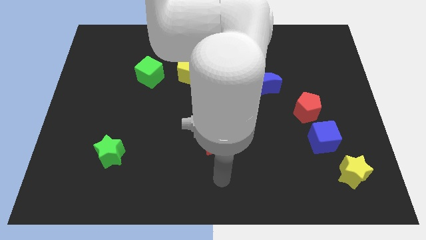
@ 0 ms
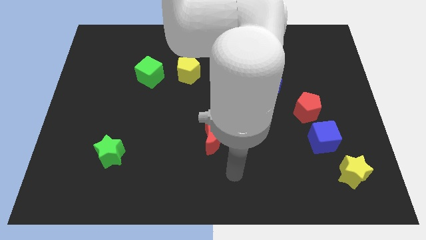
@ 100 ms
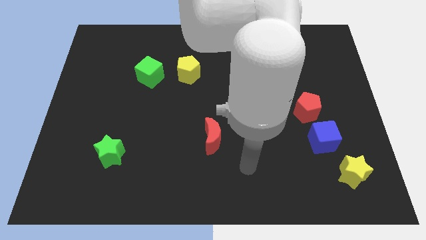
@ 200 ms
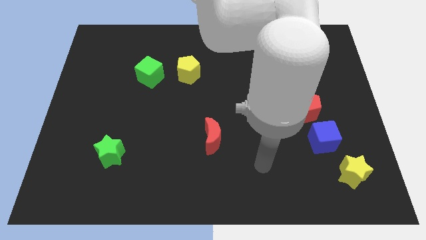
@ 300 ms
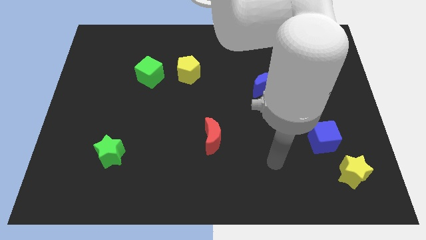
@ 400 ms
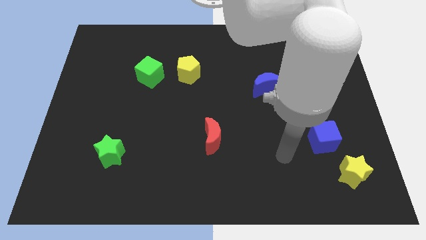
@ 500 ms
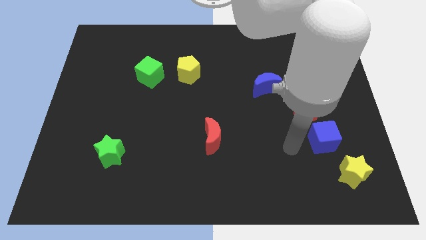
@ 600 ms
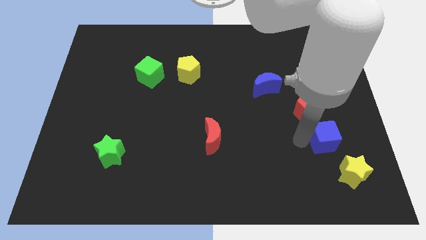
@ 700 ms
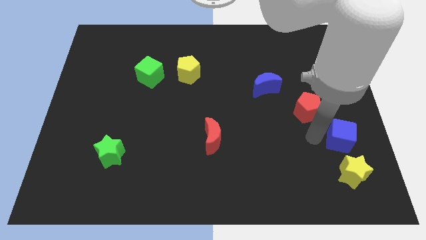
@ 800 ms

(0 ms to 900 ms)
pull the red pentagon apart from the blue cube

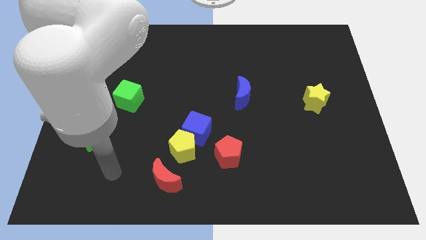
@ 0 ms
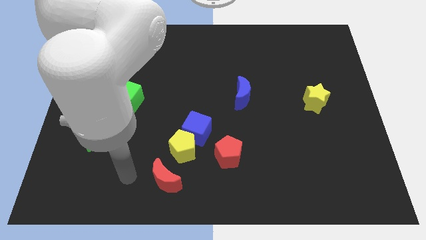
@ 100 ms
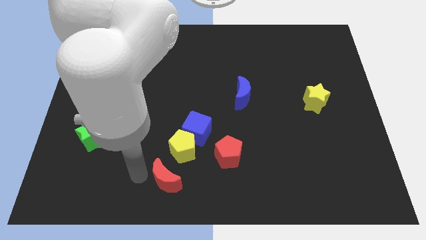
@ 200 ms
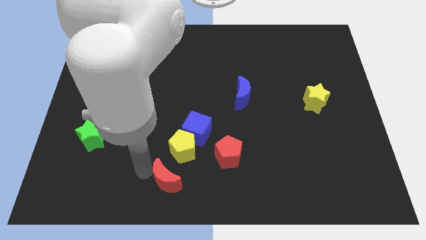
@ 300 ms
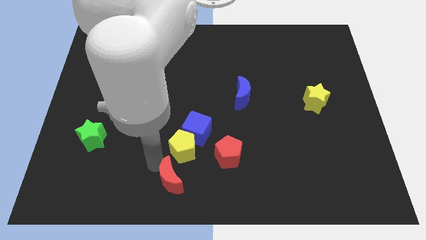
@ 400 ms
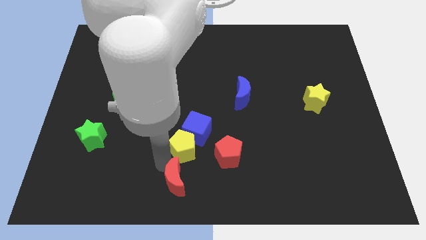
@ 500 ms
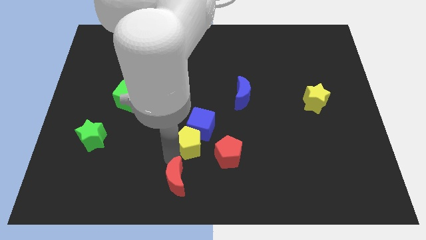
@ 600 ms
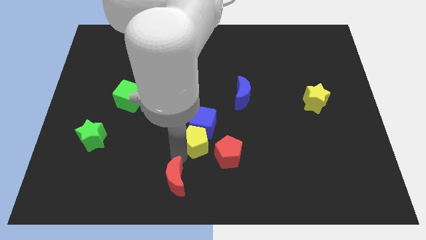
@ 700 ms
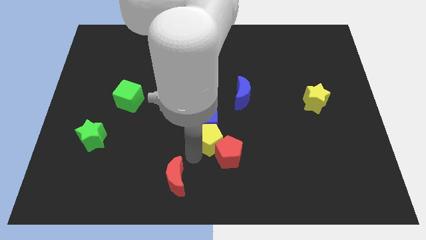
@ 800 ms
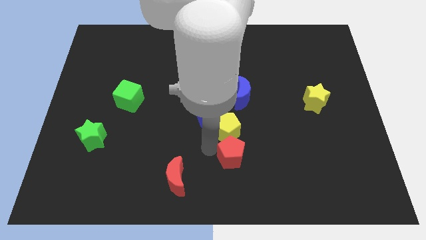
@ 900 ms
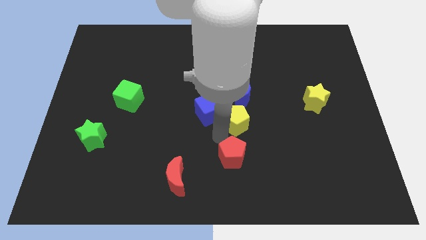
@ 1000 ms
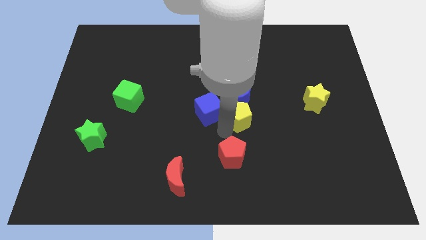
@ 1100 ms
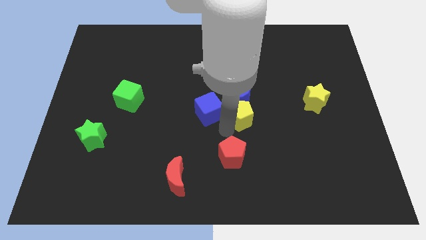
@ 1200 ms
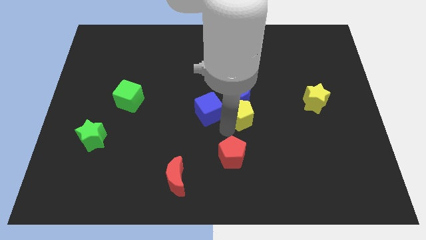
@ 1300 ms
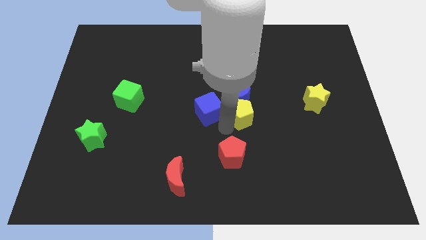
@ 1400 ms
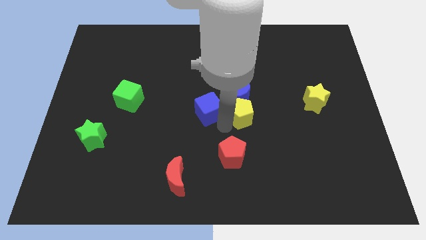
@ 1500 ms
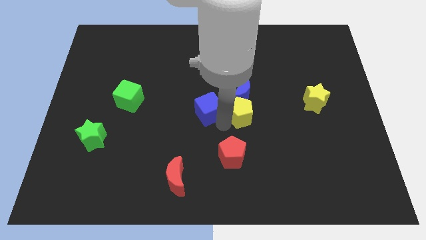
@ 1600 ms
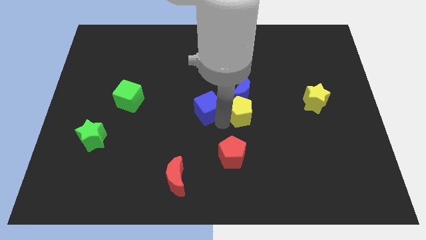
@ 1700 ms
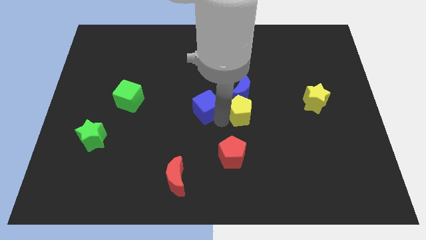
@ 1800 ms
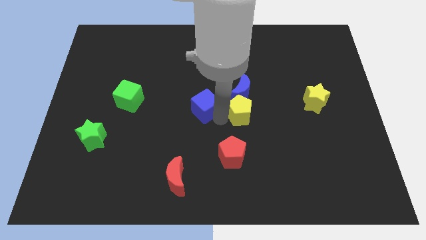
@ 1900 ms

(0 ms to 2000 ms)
separate the blue cube from the yellow pentagon and red pentagon

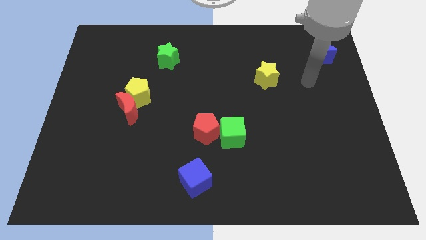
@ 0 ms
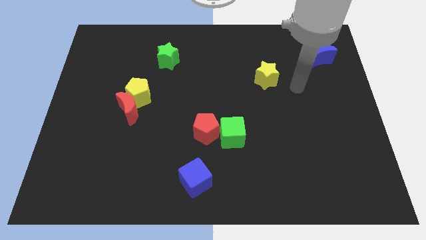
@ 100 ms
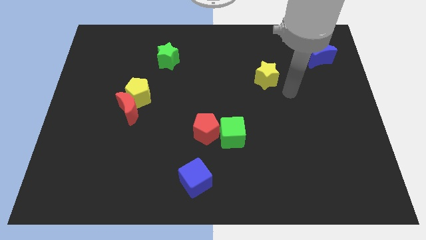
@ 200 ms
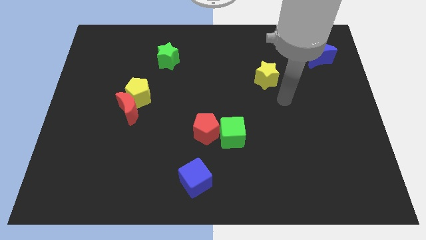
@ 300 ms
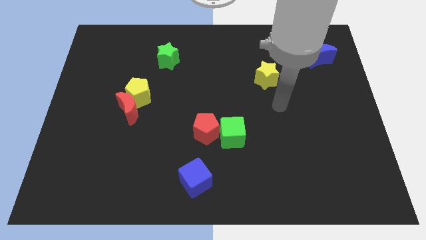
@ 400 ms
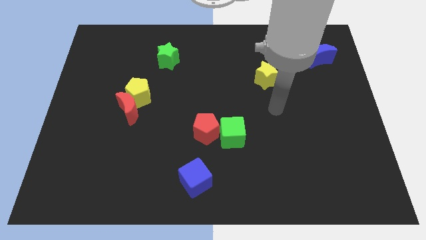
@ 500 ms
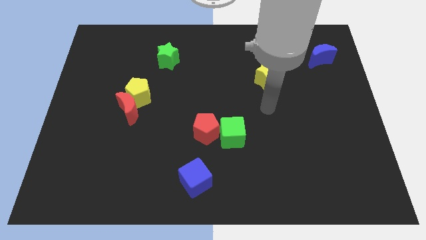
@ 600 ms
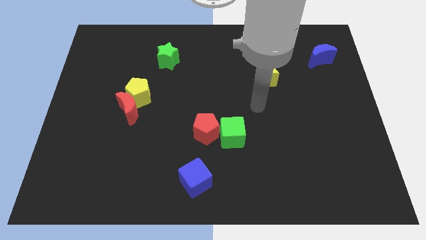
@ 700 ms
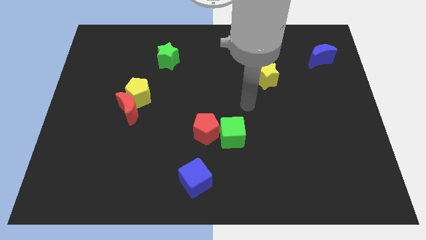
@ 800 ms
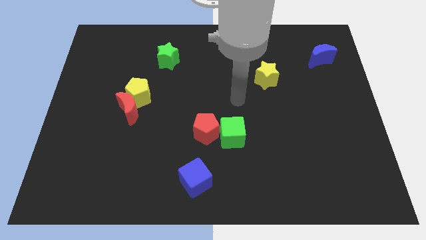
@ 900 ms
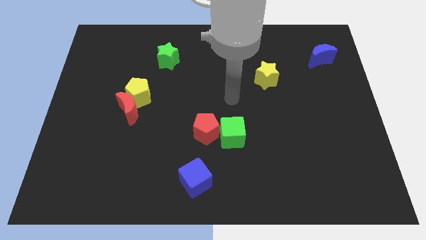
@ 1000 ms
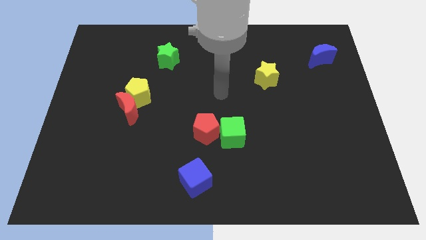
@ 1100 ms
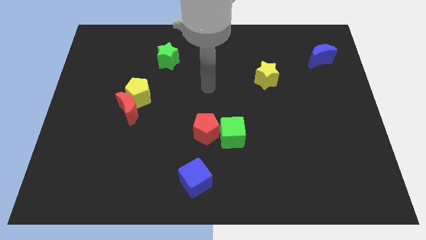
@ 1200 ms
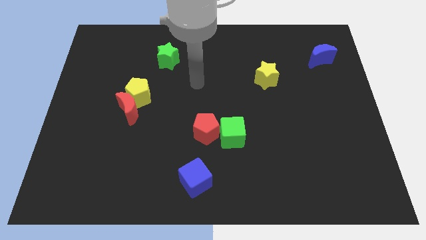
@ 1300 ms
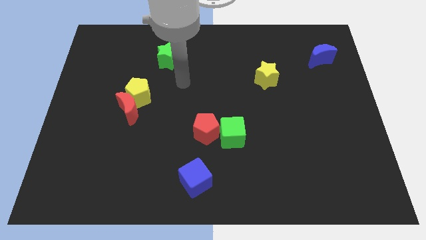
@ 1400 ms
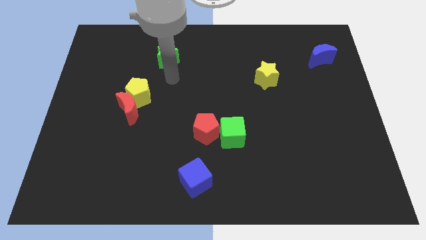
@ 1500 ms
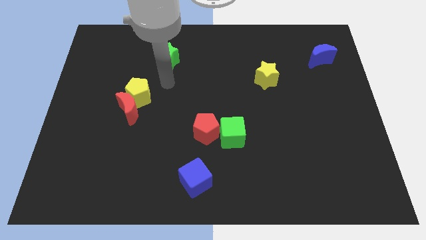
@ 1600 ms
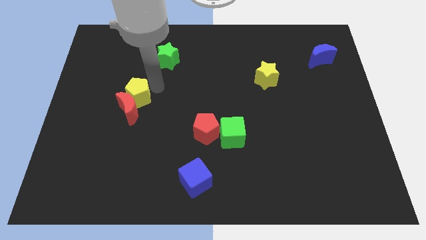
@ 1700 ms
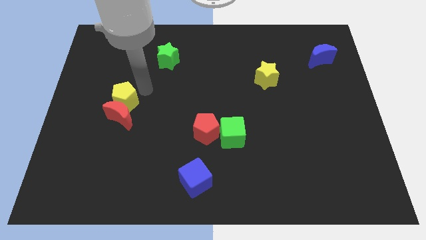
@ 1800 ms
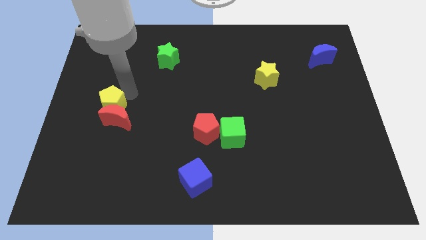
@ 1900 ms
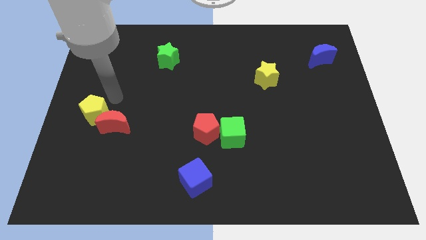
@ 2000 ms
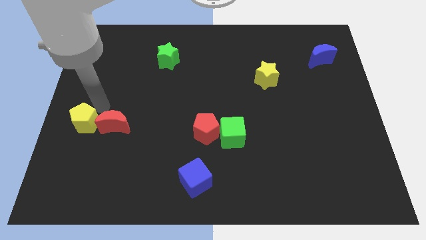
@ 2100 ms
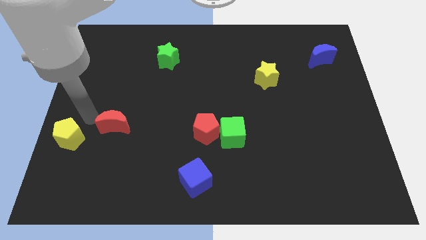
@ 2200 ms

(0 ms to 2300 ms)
pull the red moon apart from the yellow pentagon

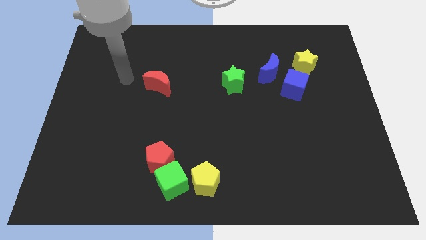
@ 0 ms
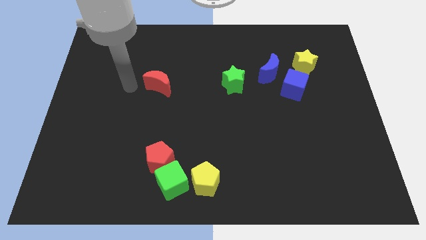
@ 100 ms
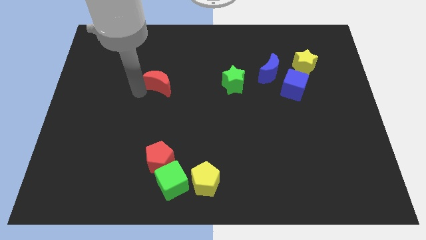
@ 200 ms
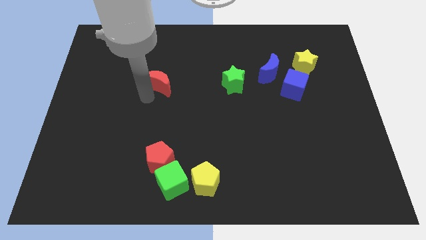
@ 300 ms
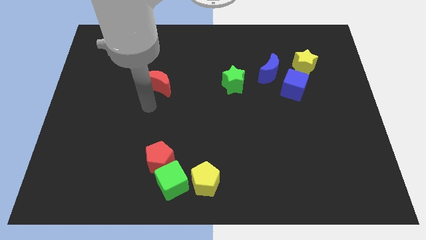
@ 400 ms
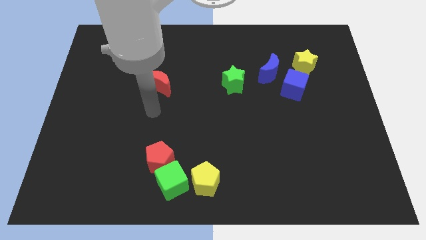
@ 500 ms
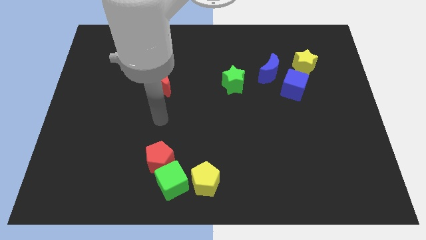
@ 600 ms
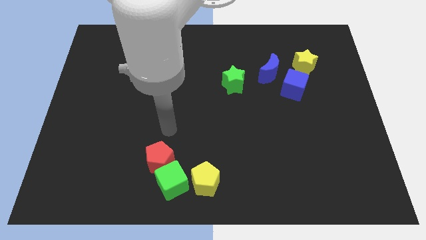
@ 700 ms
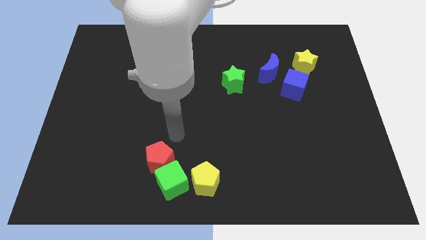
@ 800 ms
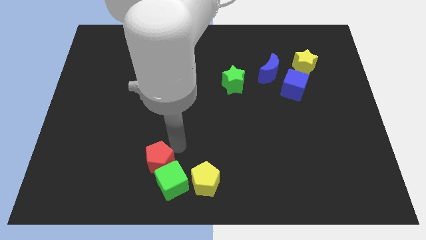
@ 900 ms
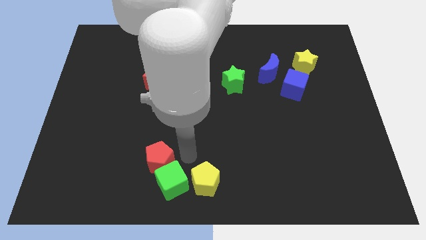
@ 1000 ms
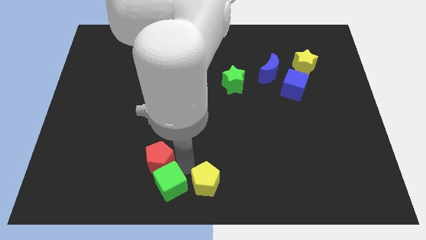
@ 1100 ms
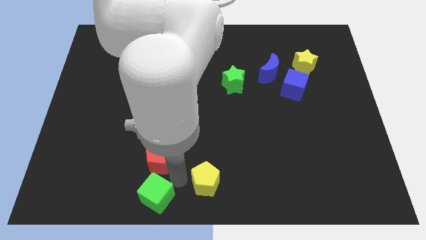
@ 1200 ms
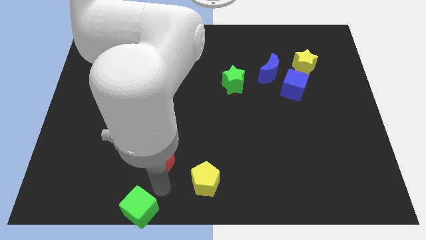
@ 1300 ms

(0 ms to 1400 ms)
move the red pentagon away from the green cube

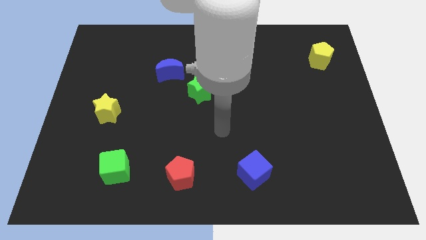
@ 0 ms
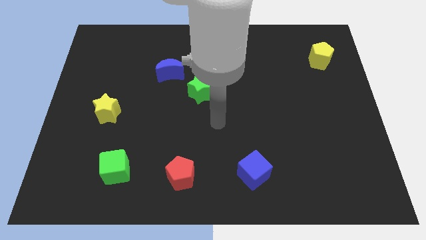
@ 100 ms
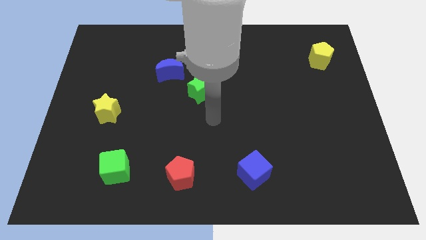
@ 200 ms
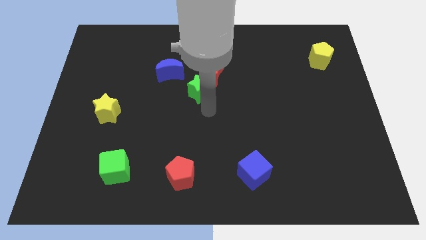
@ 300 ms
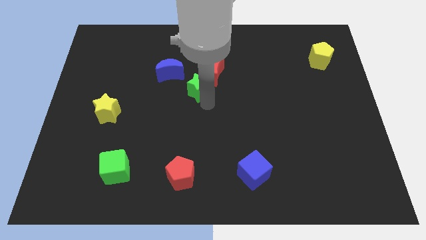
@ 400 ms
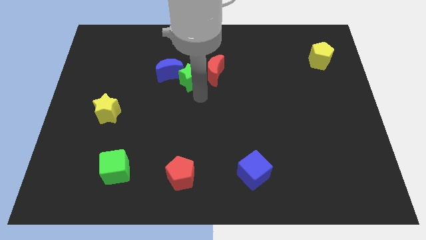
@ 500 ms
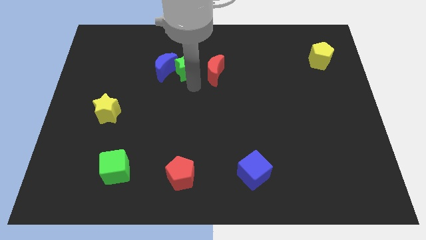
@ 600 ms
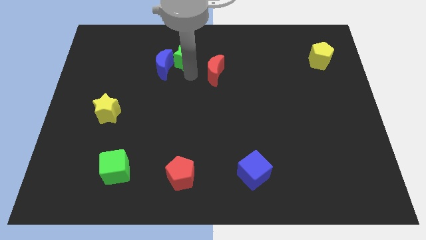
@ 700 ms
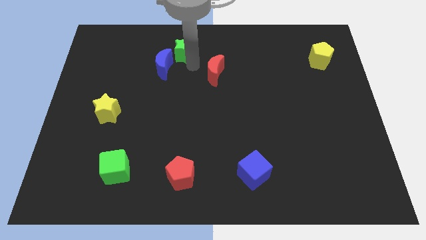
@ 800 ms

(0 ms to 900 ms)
move the red moon away from the green star

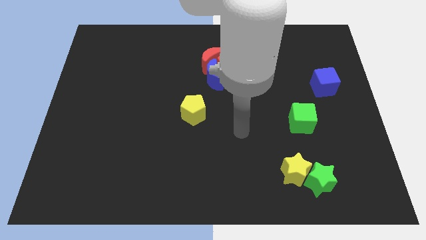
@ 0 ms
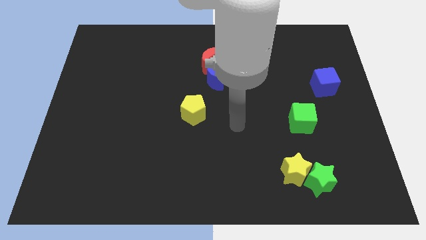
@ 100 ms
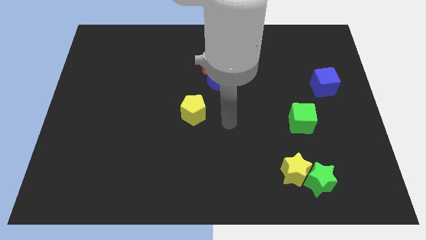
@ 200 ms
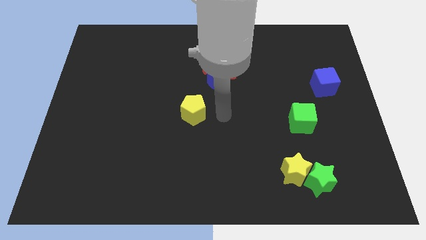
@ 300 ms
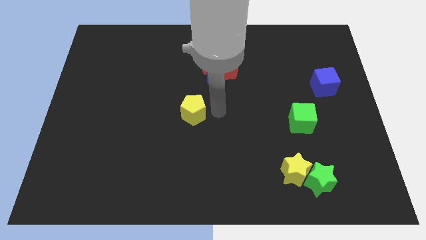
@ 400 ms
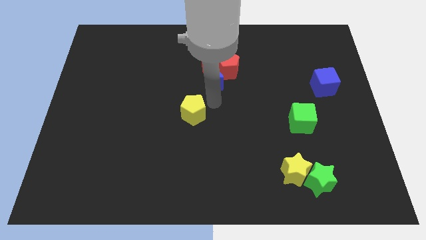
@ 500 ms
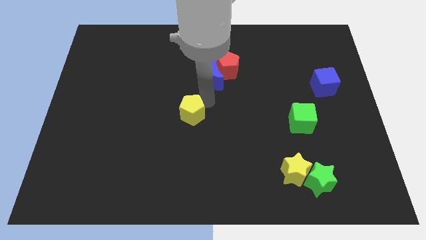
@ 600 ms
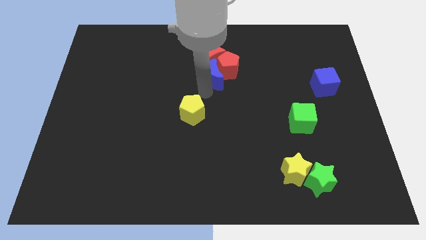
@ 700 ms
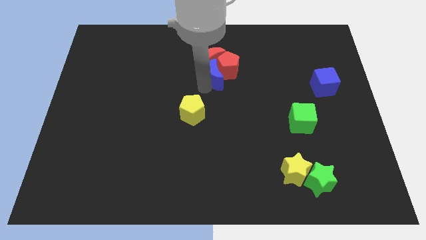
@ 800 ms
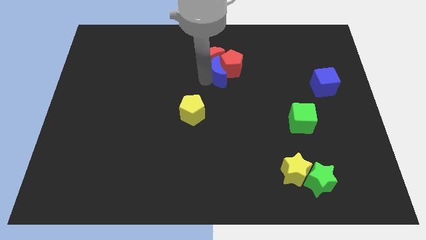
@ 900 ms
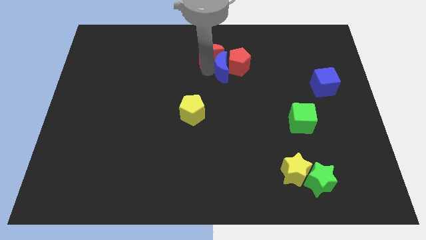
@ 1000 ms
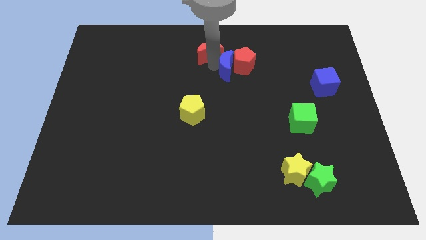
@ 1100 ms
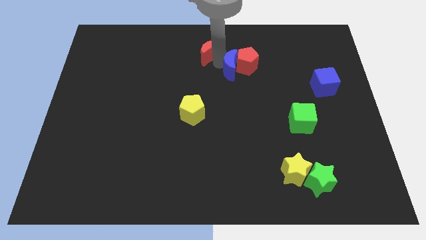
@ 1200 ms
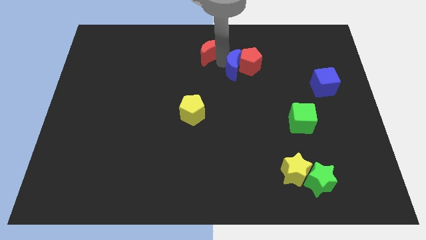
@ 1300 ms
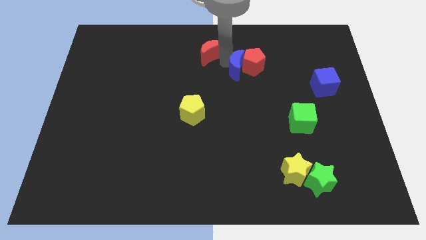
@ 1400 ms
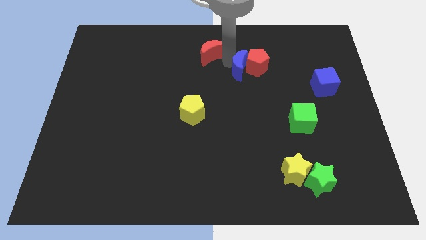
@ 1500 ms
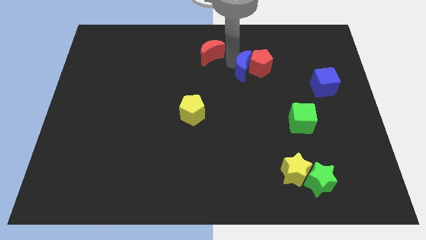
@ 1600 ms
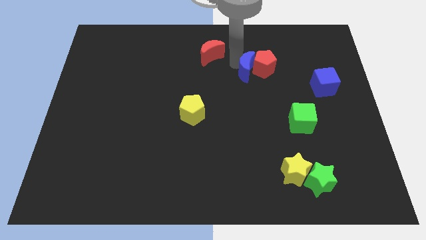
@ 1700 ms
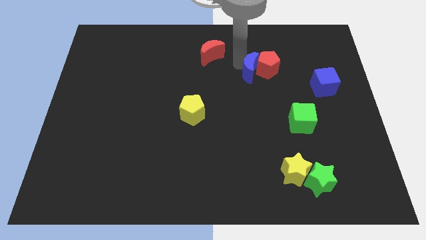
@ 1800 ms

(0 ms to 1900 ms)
move the red pentagon away from the blue moon and red moon
